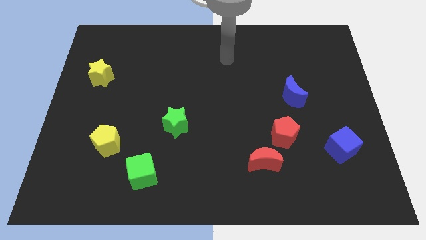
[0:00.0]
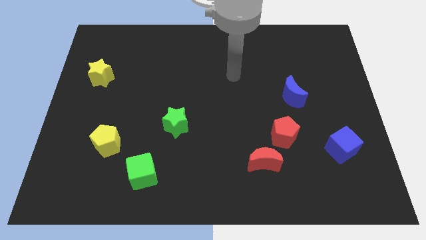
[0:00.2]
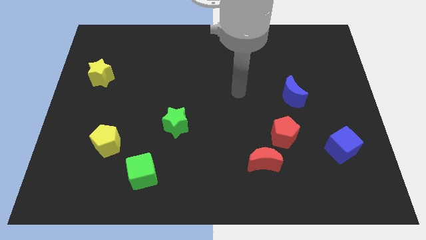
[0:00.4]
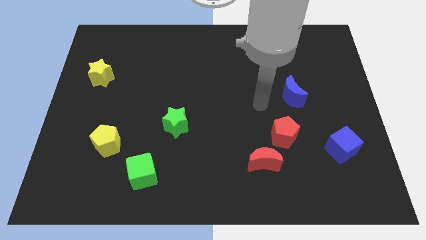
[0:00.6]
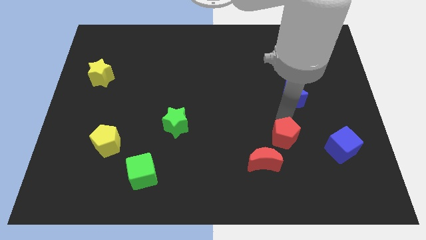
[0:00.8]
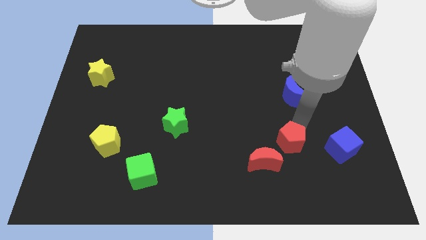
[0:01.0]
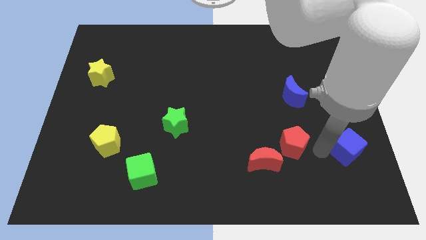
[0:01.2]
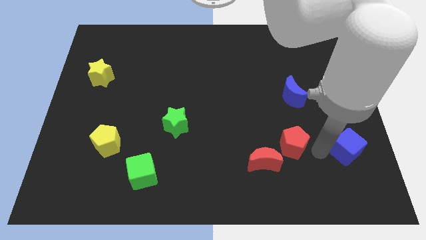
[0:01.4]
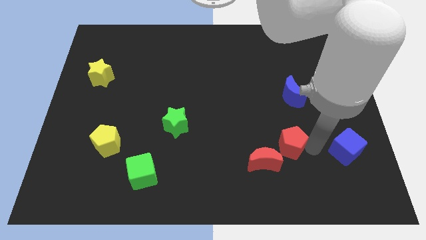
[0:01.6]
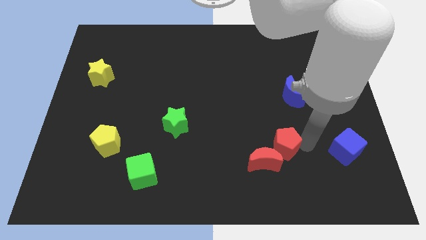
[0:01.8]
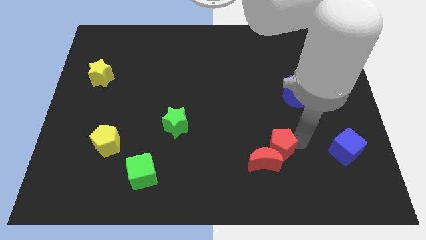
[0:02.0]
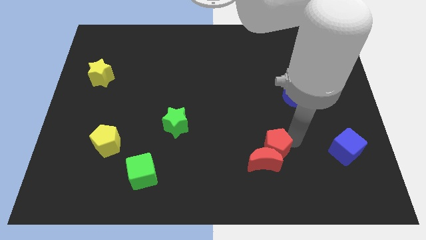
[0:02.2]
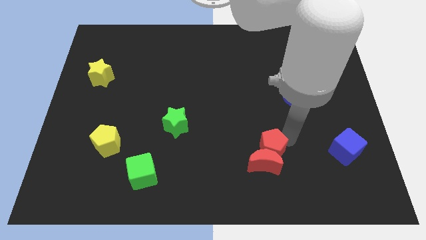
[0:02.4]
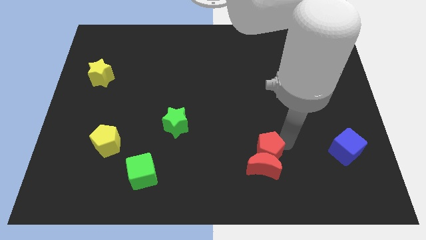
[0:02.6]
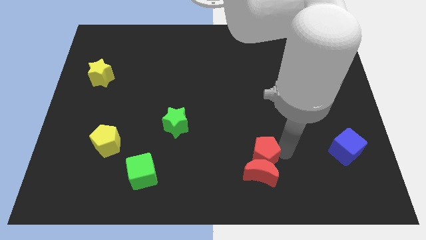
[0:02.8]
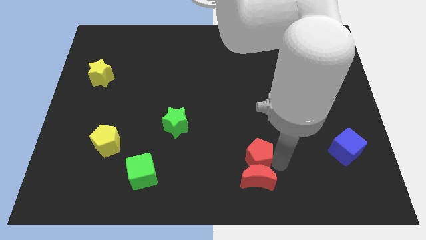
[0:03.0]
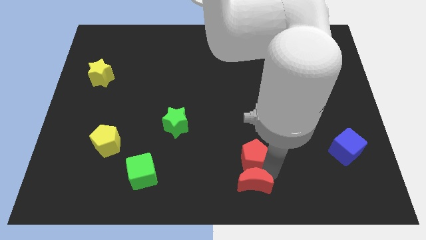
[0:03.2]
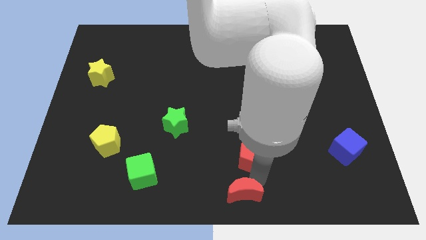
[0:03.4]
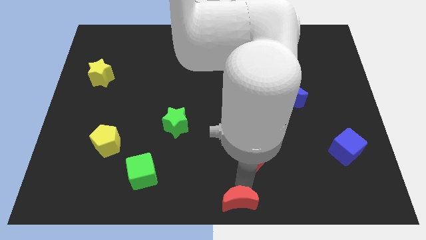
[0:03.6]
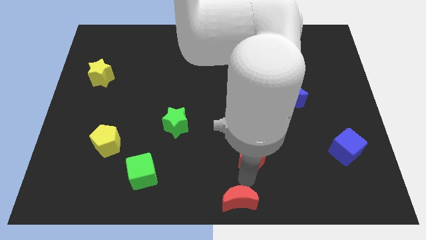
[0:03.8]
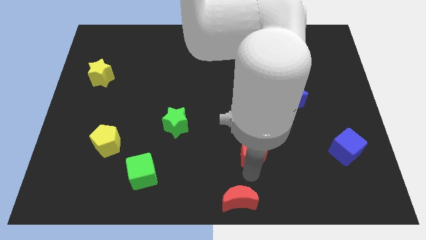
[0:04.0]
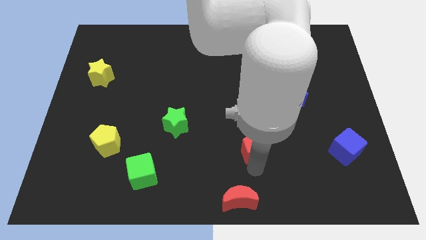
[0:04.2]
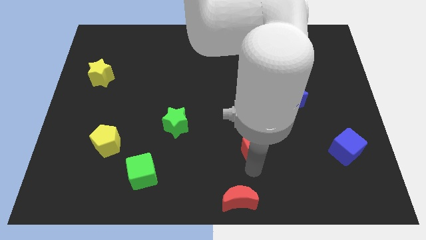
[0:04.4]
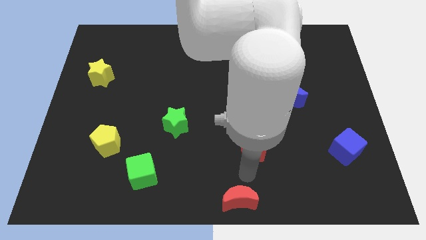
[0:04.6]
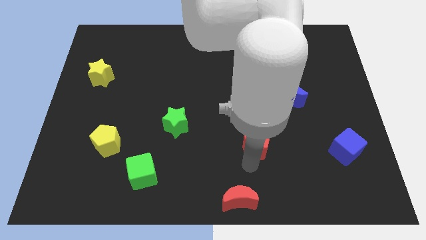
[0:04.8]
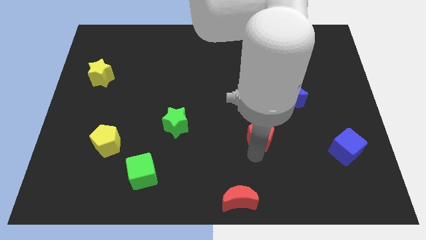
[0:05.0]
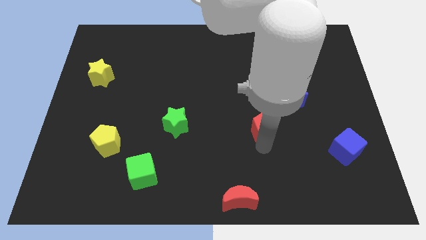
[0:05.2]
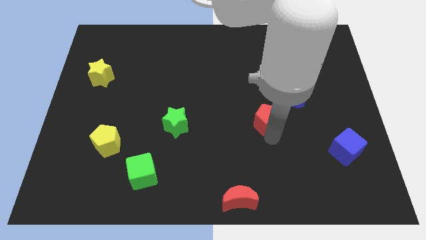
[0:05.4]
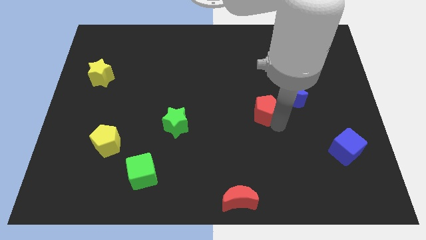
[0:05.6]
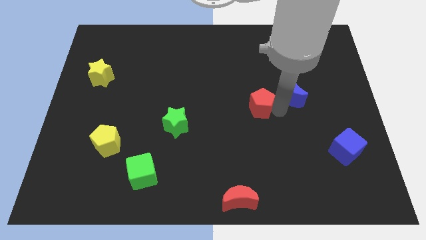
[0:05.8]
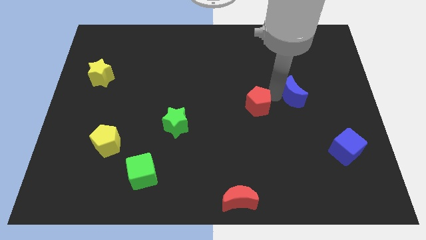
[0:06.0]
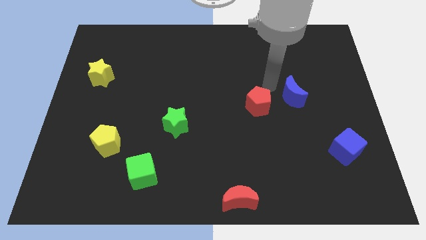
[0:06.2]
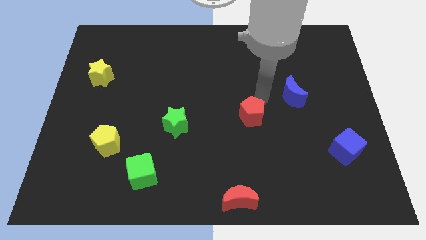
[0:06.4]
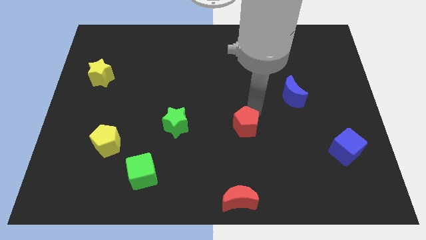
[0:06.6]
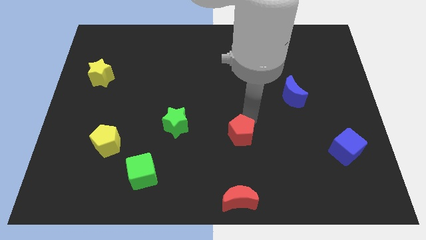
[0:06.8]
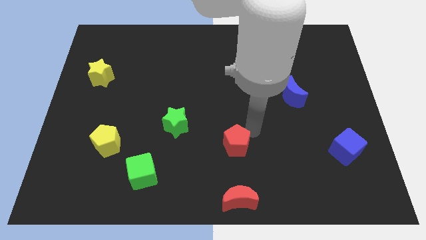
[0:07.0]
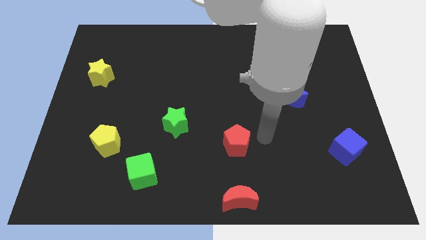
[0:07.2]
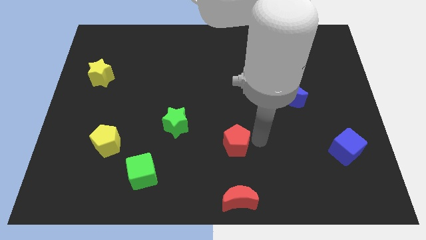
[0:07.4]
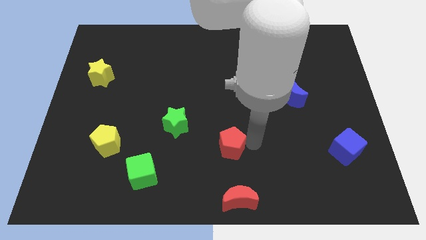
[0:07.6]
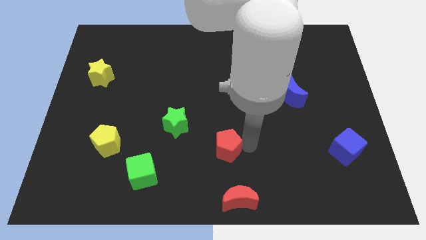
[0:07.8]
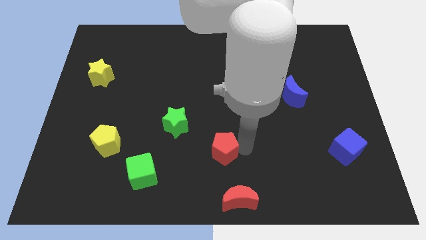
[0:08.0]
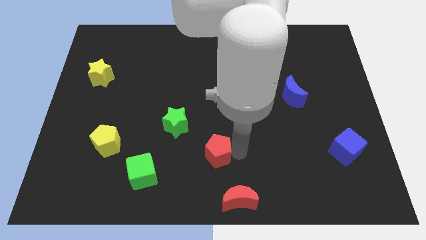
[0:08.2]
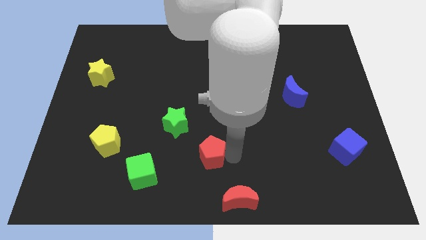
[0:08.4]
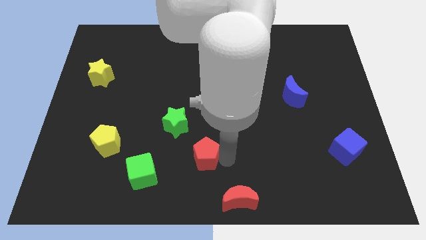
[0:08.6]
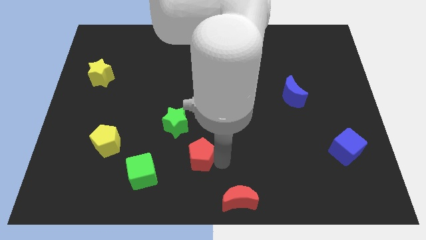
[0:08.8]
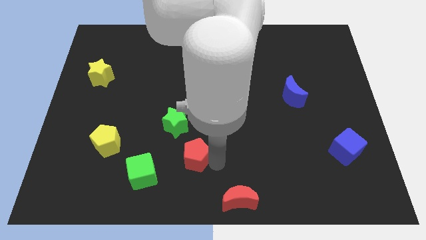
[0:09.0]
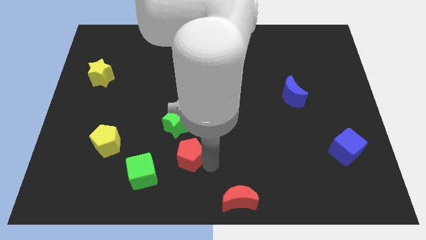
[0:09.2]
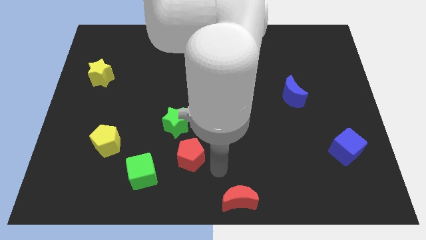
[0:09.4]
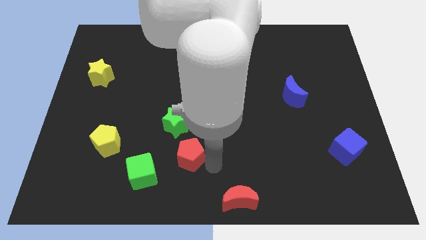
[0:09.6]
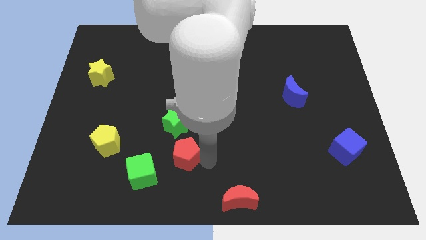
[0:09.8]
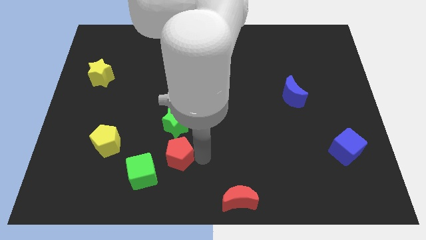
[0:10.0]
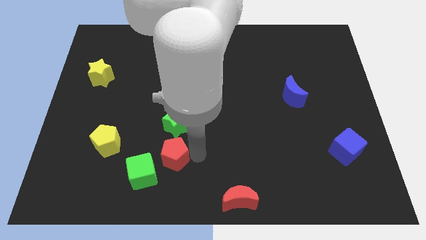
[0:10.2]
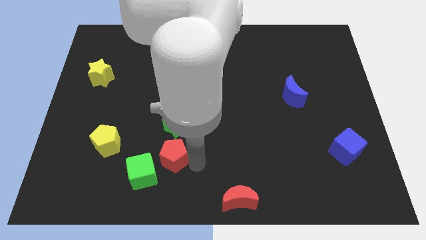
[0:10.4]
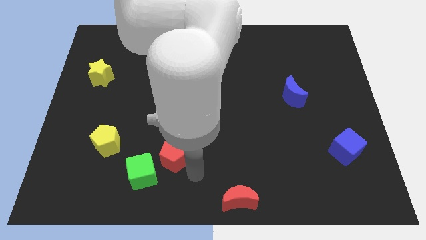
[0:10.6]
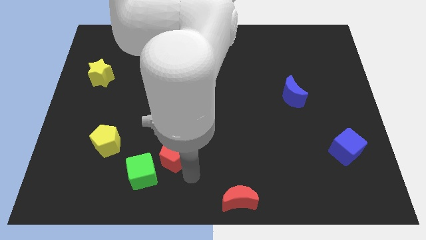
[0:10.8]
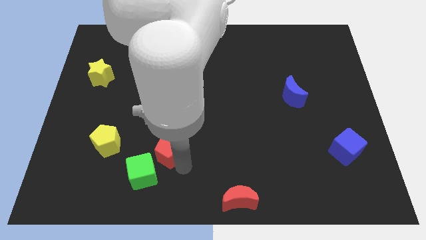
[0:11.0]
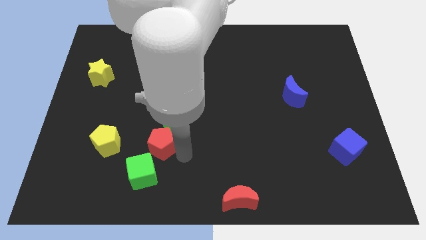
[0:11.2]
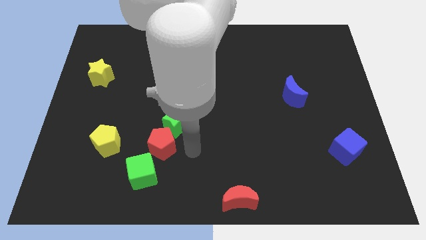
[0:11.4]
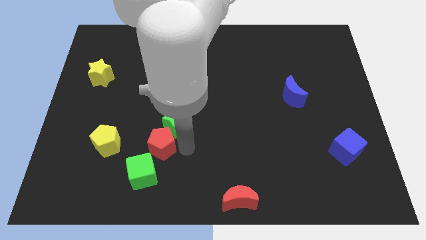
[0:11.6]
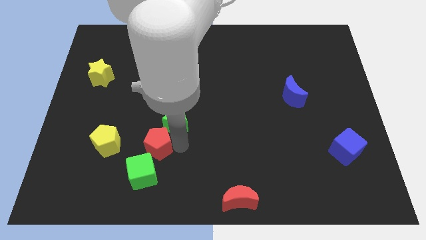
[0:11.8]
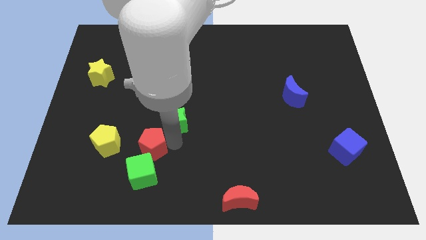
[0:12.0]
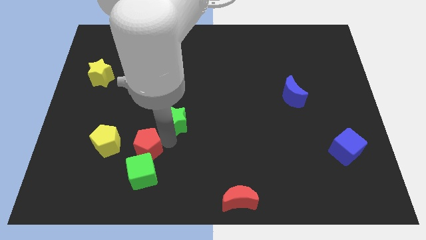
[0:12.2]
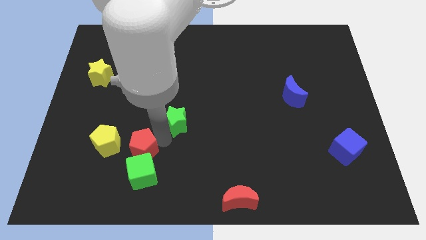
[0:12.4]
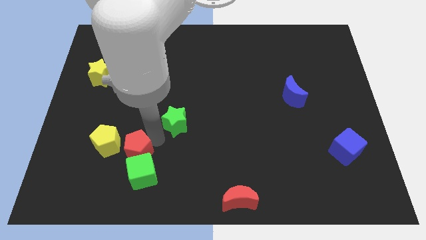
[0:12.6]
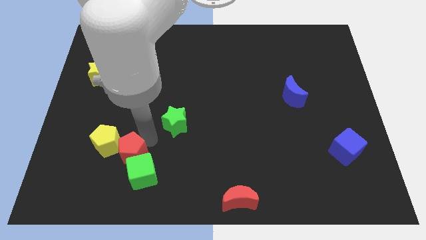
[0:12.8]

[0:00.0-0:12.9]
slide the red pentagon to the yellow pentagon
